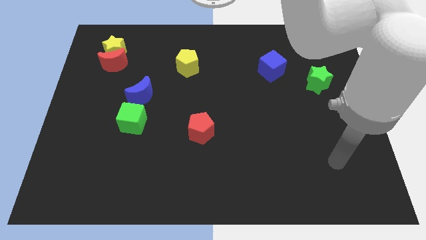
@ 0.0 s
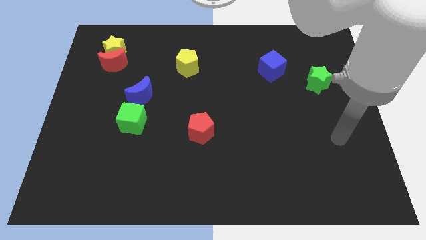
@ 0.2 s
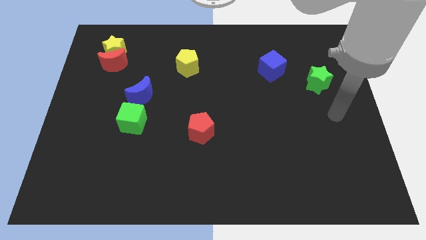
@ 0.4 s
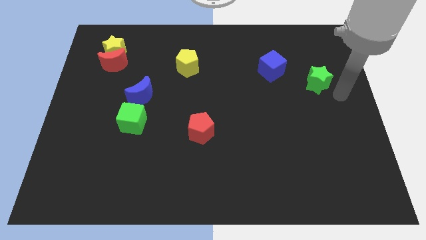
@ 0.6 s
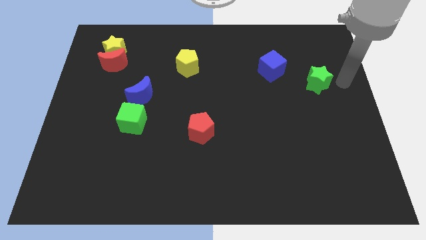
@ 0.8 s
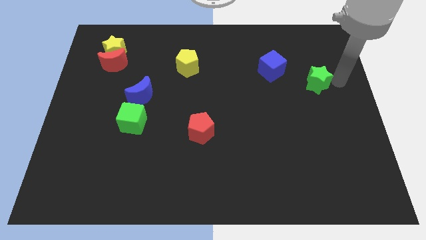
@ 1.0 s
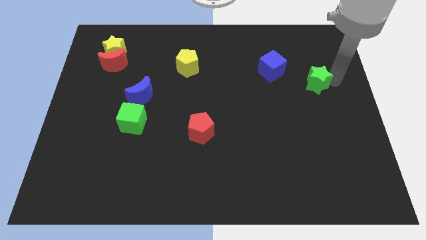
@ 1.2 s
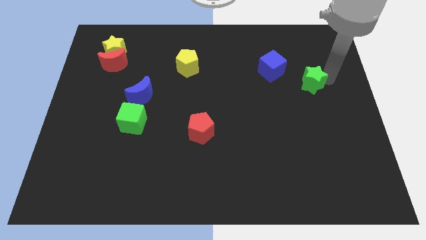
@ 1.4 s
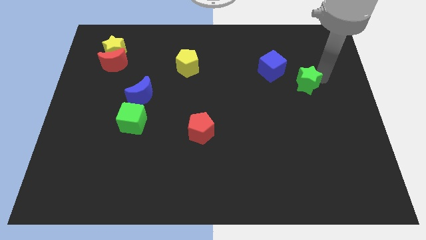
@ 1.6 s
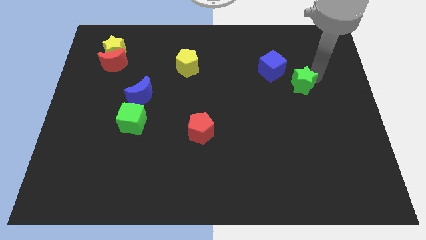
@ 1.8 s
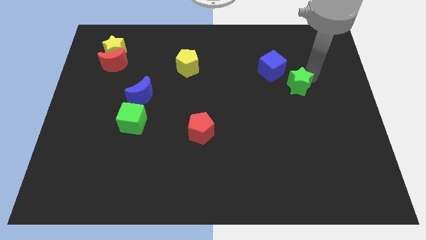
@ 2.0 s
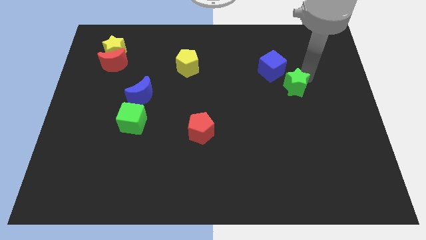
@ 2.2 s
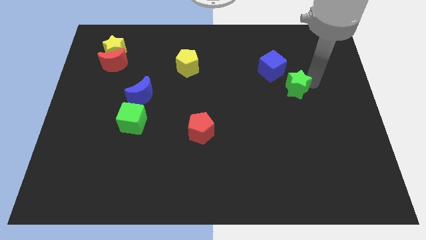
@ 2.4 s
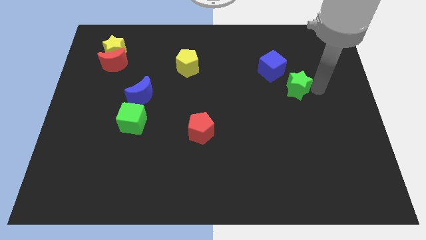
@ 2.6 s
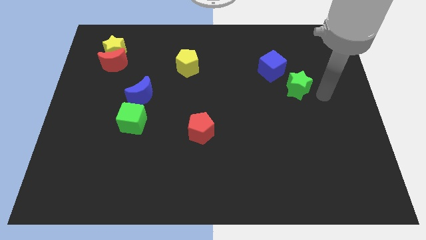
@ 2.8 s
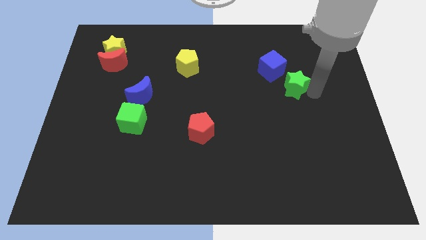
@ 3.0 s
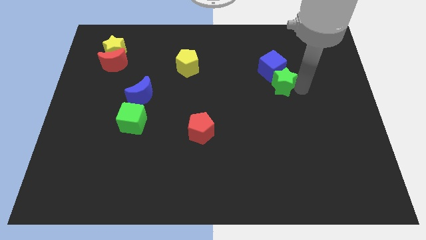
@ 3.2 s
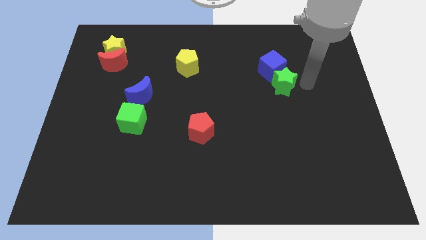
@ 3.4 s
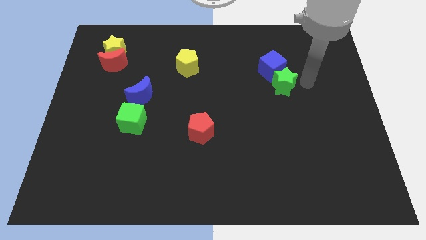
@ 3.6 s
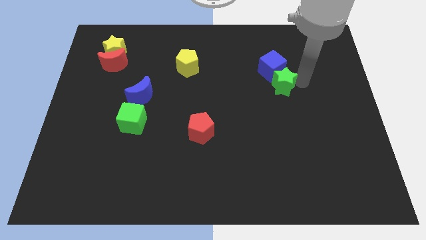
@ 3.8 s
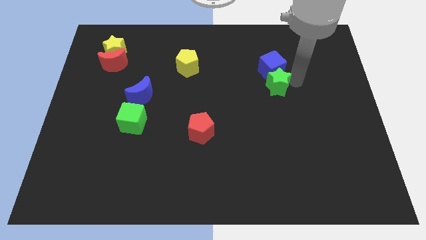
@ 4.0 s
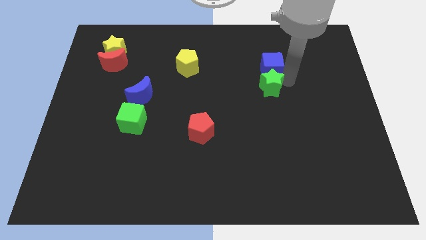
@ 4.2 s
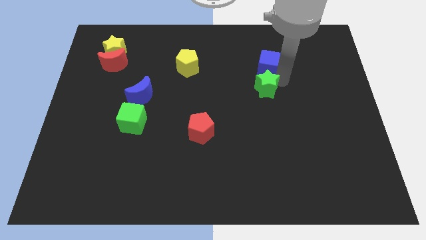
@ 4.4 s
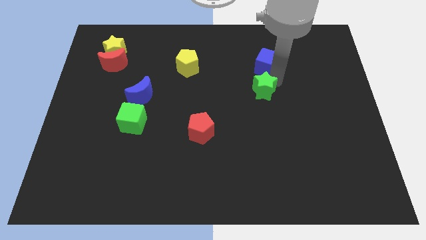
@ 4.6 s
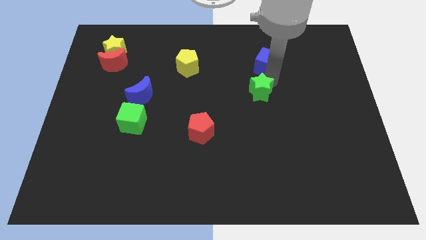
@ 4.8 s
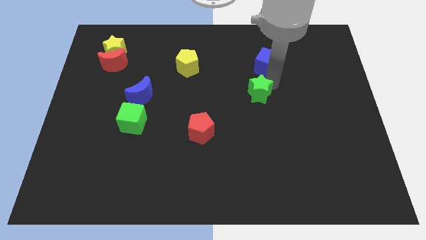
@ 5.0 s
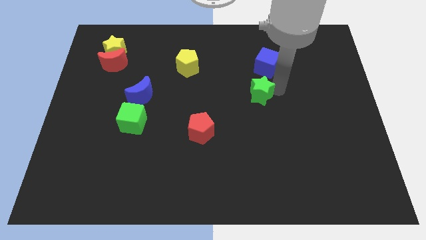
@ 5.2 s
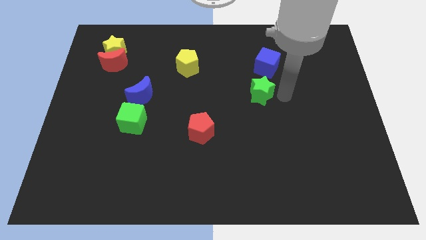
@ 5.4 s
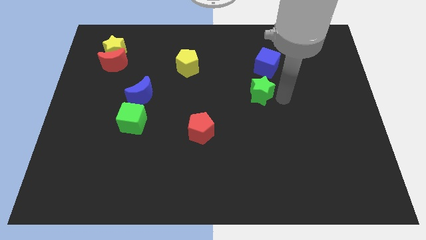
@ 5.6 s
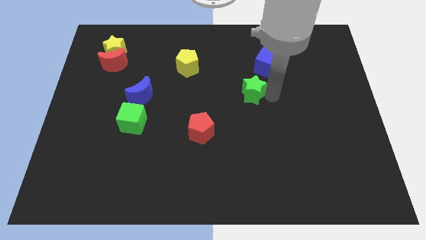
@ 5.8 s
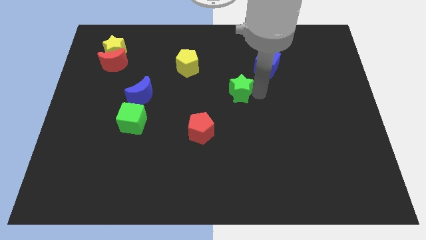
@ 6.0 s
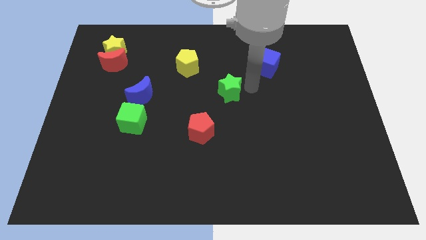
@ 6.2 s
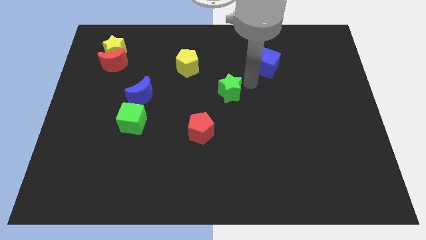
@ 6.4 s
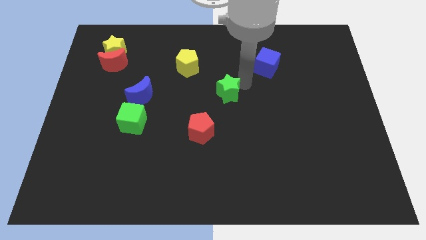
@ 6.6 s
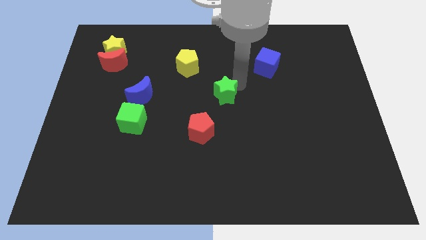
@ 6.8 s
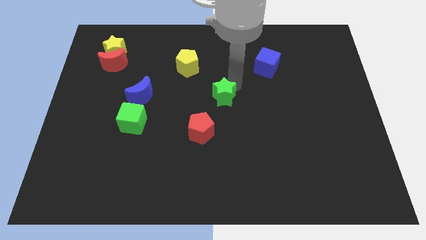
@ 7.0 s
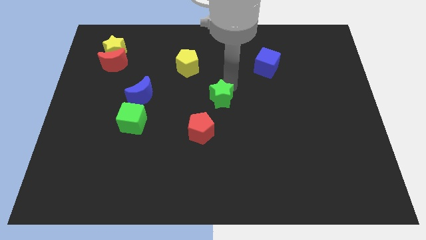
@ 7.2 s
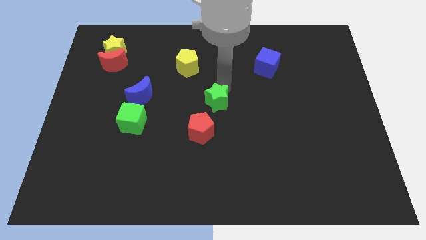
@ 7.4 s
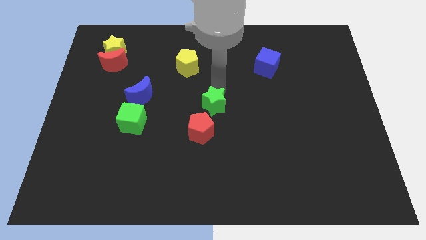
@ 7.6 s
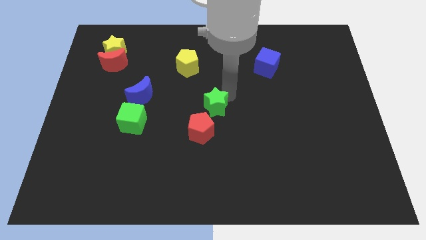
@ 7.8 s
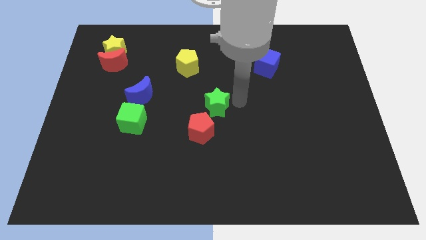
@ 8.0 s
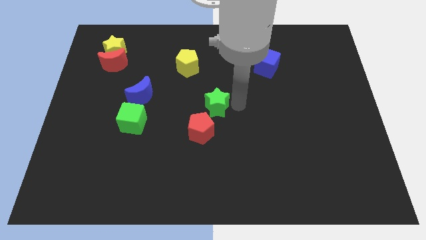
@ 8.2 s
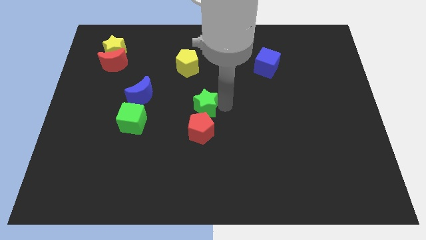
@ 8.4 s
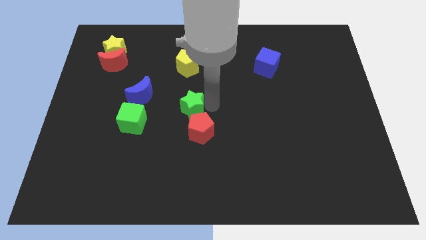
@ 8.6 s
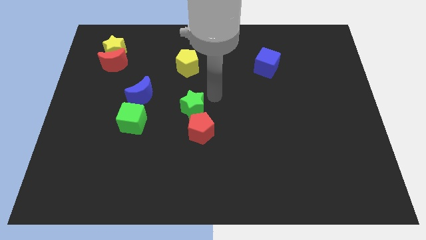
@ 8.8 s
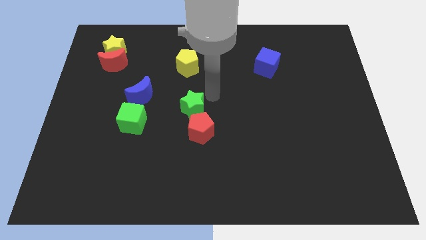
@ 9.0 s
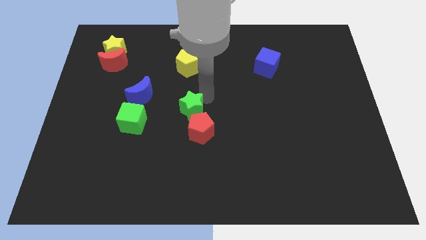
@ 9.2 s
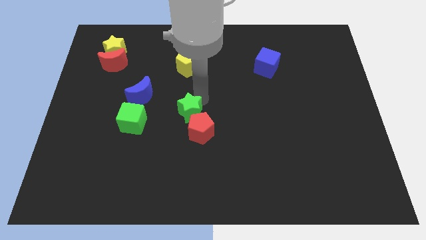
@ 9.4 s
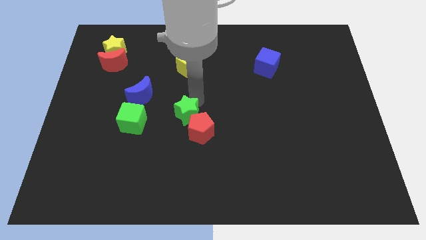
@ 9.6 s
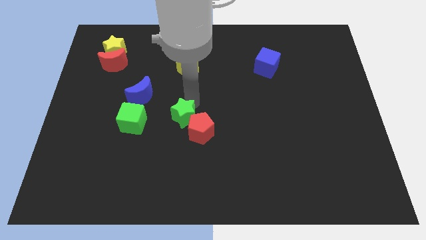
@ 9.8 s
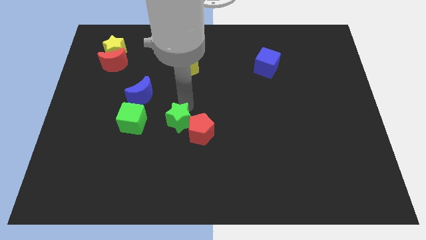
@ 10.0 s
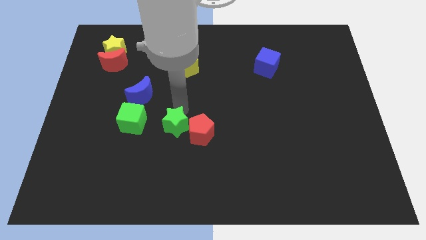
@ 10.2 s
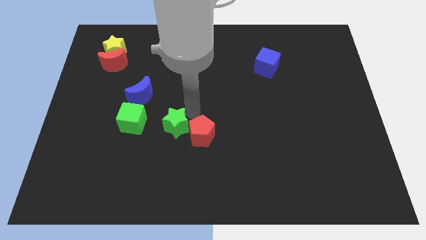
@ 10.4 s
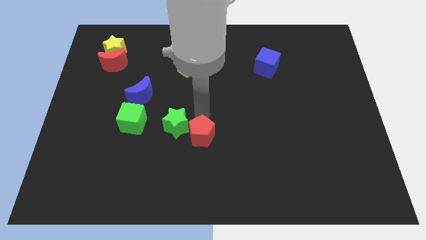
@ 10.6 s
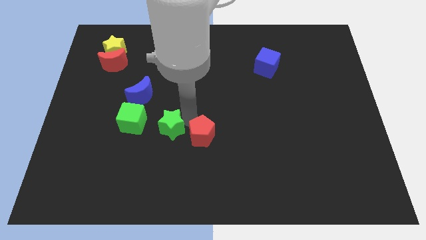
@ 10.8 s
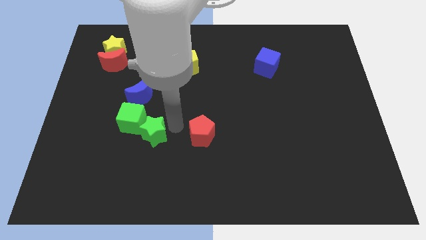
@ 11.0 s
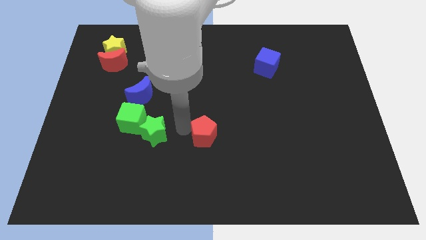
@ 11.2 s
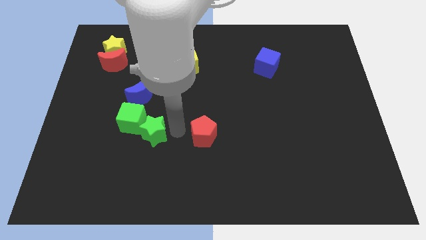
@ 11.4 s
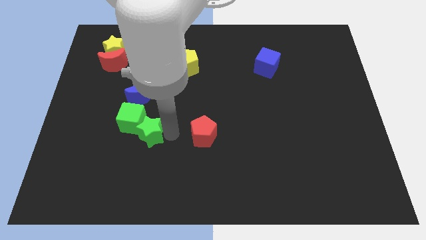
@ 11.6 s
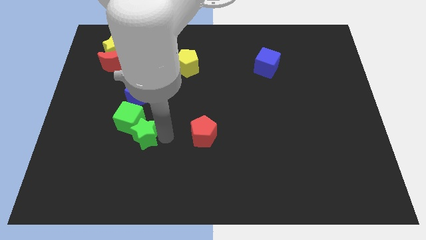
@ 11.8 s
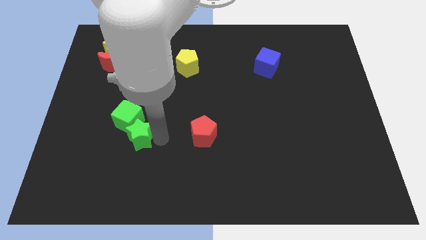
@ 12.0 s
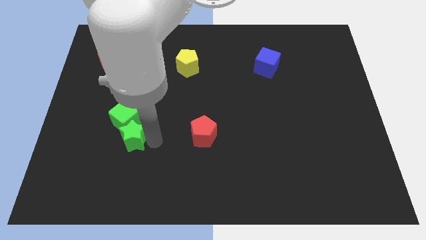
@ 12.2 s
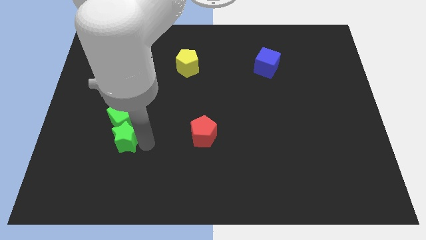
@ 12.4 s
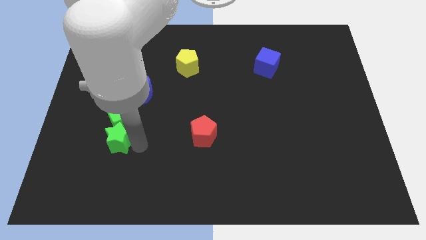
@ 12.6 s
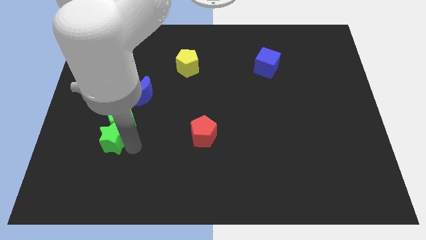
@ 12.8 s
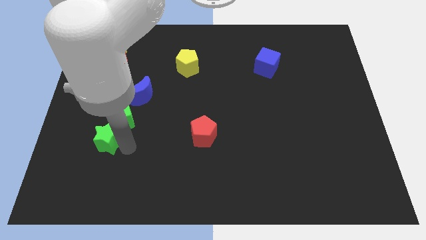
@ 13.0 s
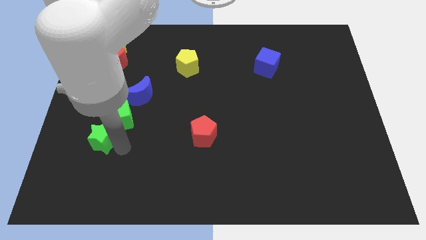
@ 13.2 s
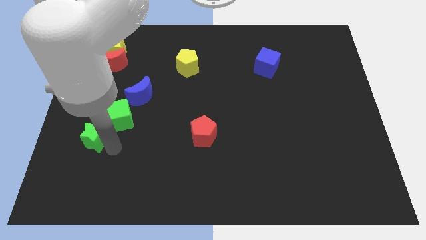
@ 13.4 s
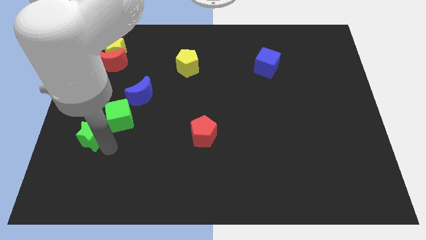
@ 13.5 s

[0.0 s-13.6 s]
move the green star left of the green cube

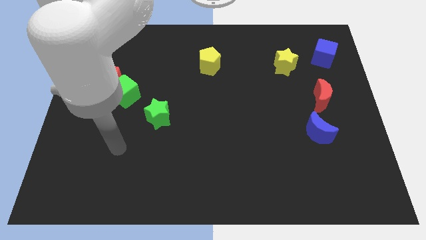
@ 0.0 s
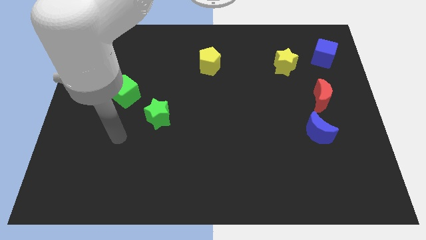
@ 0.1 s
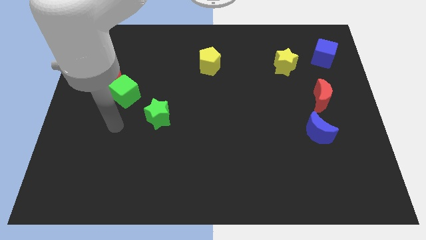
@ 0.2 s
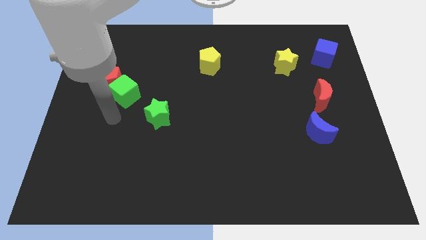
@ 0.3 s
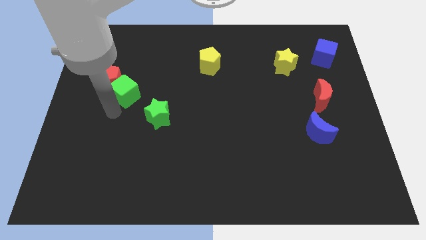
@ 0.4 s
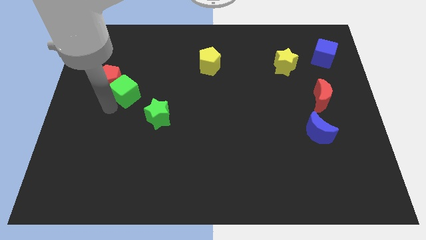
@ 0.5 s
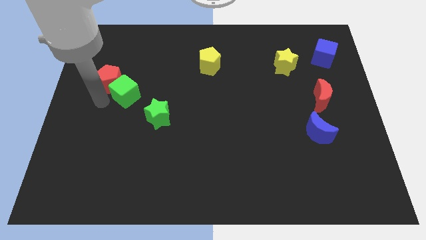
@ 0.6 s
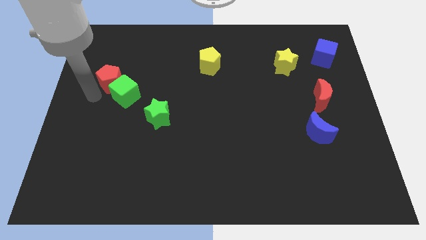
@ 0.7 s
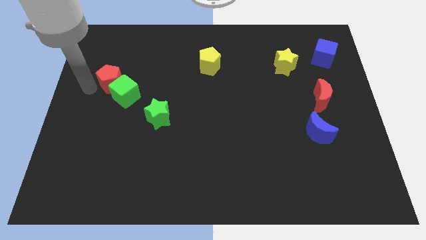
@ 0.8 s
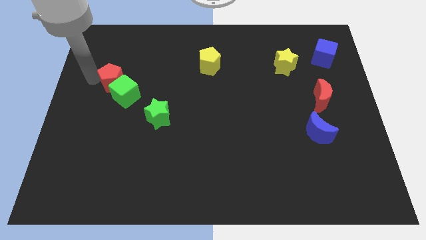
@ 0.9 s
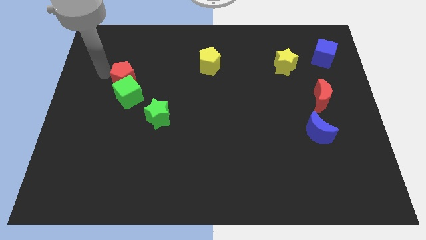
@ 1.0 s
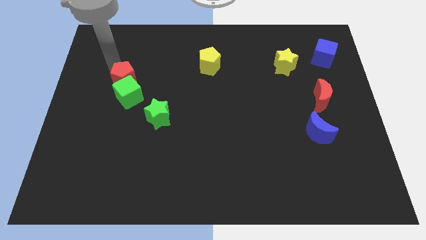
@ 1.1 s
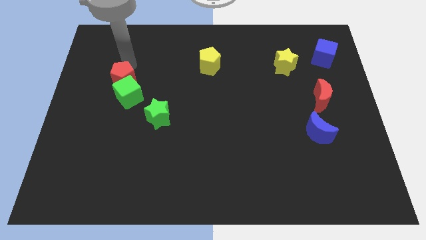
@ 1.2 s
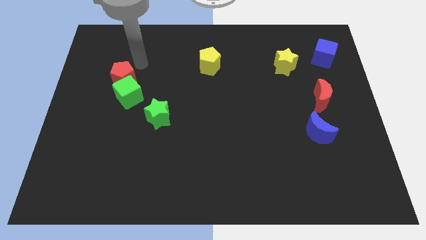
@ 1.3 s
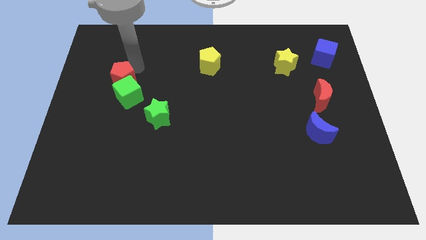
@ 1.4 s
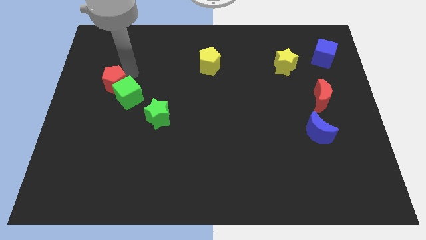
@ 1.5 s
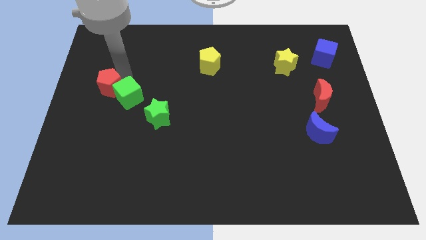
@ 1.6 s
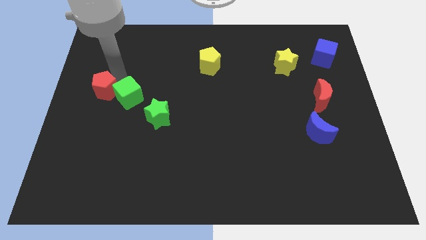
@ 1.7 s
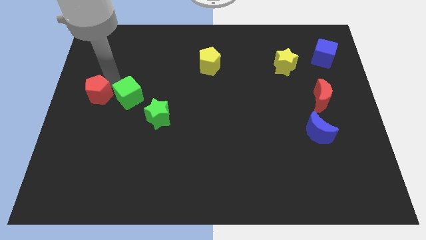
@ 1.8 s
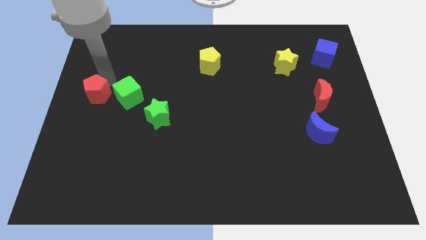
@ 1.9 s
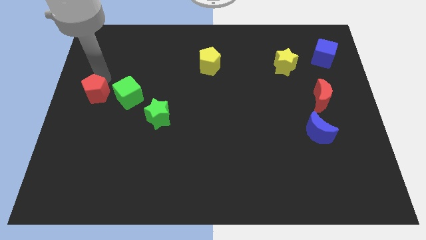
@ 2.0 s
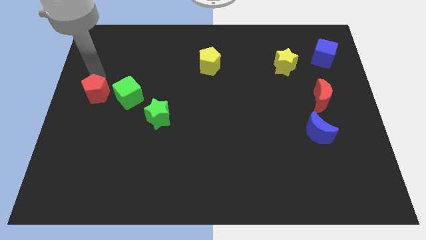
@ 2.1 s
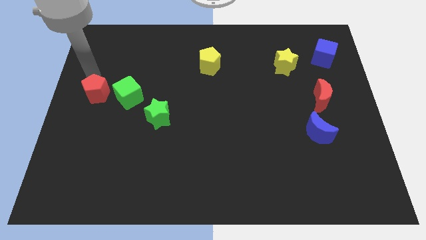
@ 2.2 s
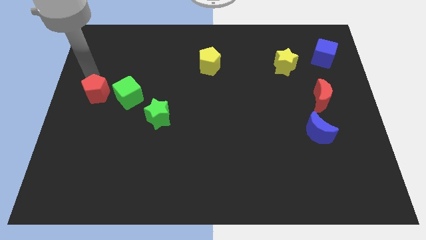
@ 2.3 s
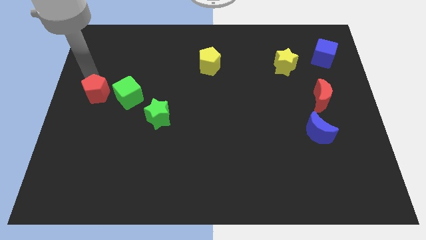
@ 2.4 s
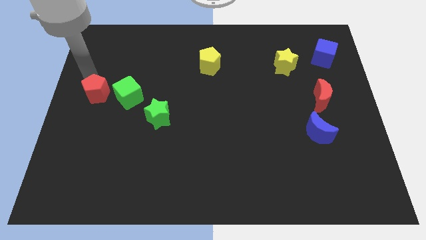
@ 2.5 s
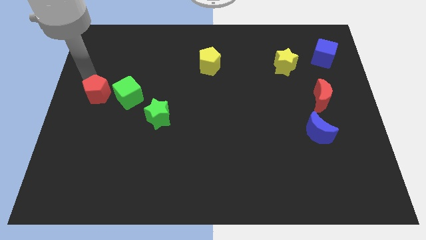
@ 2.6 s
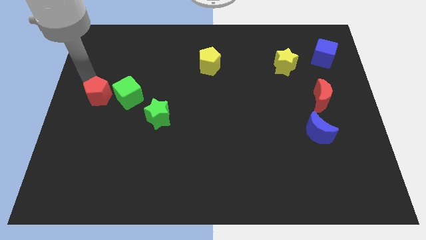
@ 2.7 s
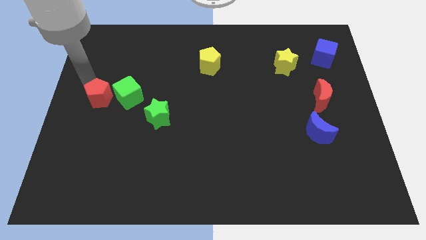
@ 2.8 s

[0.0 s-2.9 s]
put the red pentagon to the bottom left of the green cube
